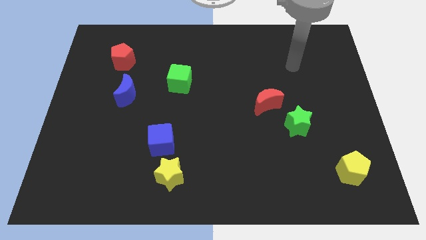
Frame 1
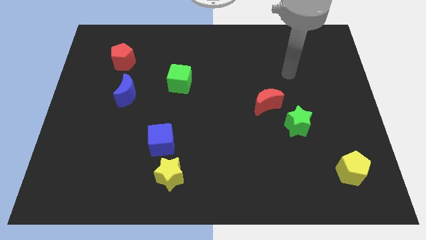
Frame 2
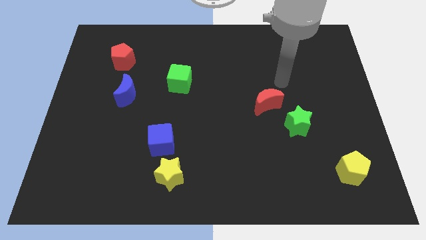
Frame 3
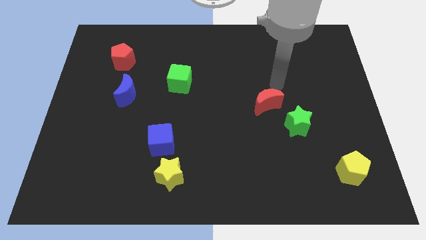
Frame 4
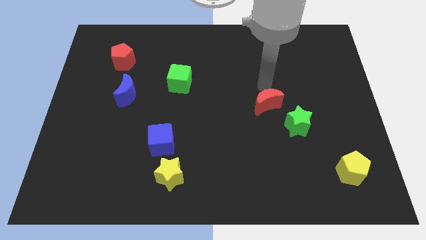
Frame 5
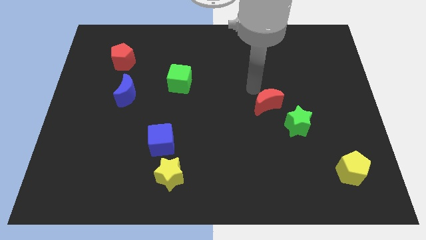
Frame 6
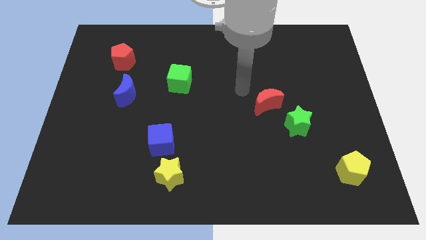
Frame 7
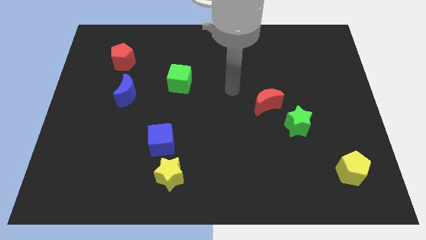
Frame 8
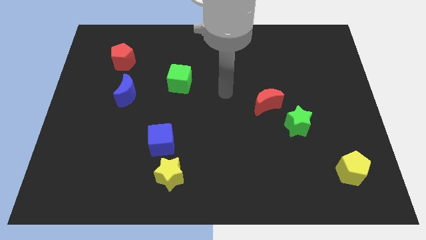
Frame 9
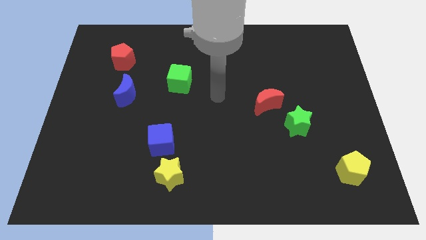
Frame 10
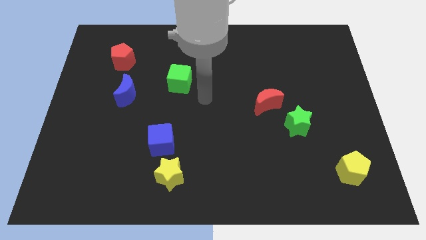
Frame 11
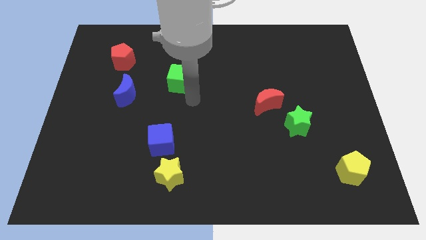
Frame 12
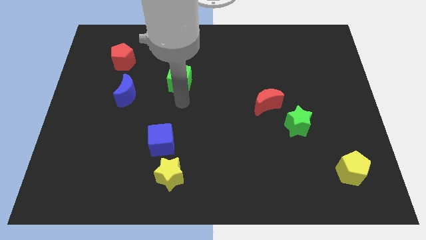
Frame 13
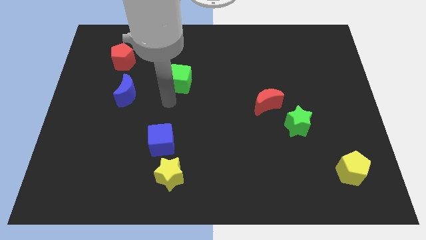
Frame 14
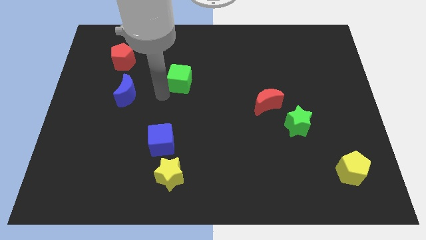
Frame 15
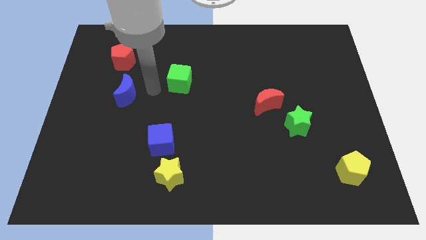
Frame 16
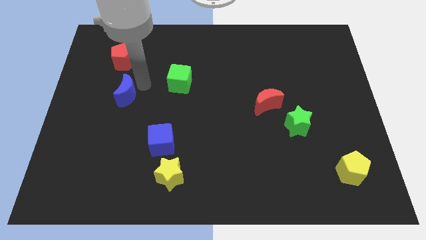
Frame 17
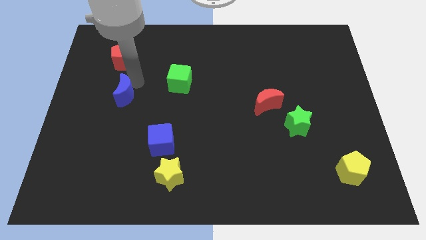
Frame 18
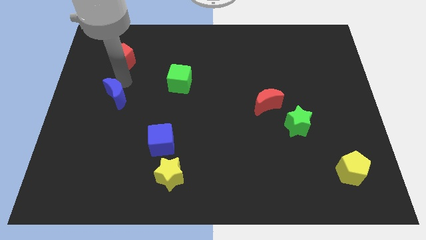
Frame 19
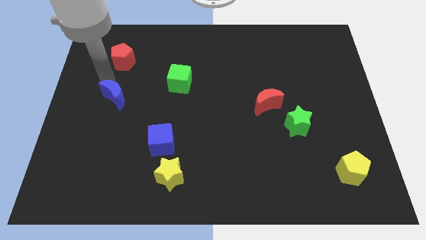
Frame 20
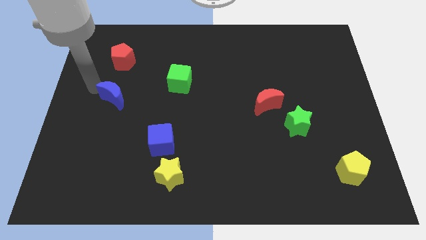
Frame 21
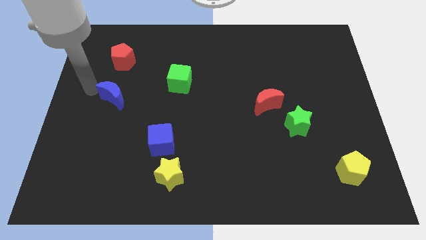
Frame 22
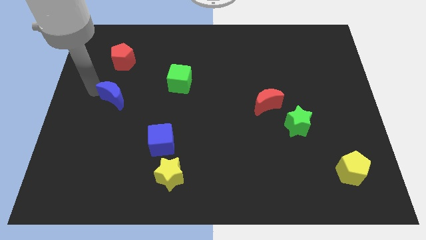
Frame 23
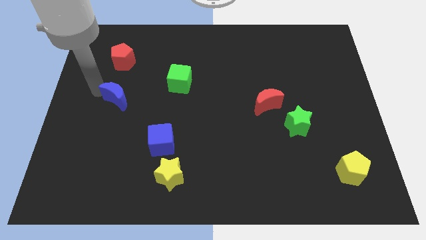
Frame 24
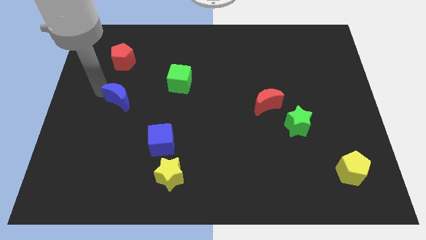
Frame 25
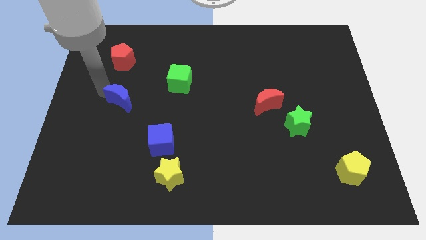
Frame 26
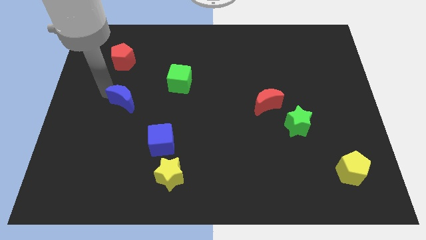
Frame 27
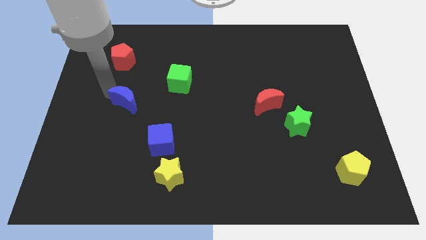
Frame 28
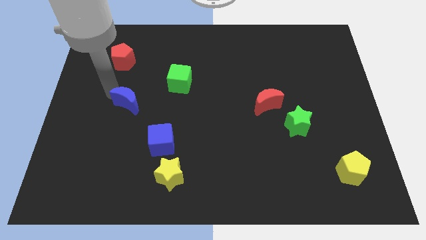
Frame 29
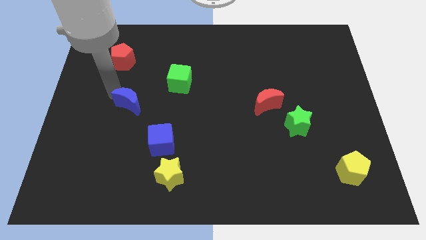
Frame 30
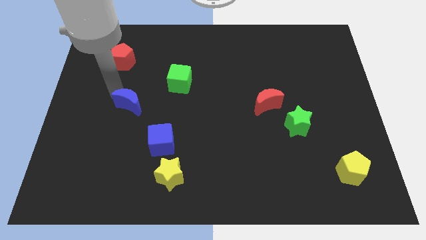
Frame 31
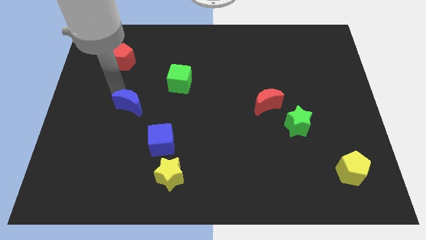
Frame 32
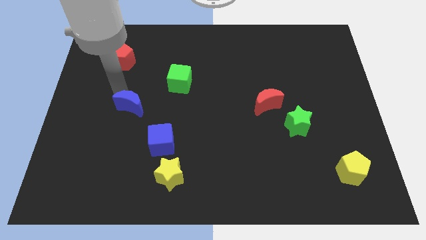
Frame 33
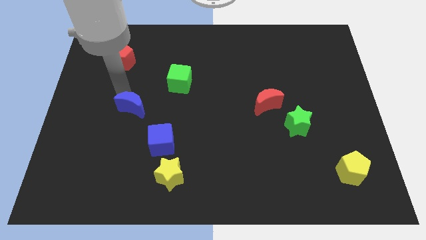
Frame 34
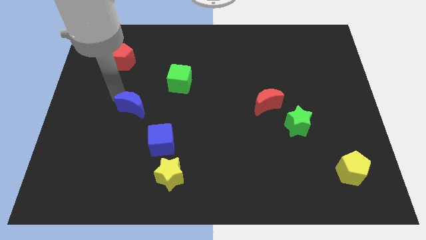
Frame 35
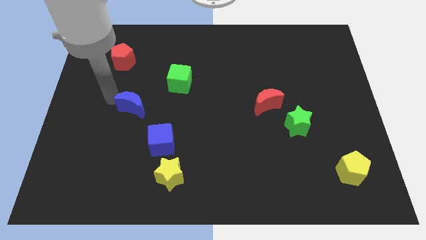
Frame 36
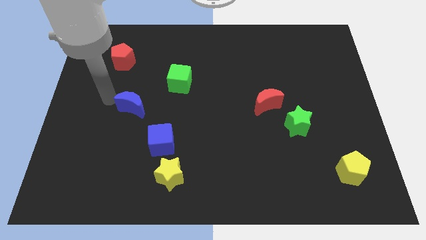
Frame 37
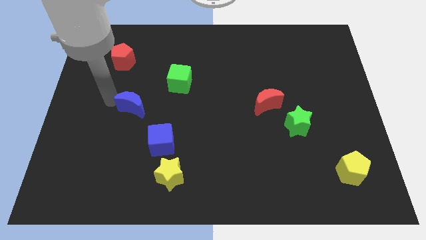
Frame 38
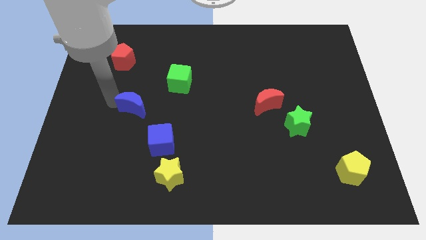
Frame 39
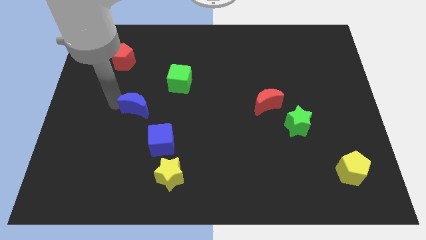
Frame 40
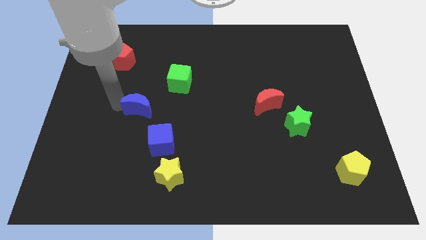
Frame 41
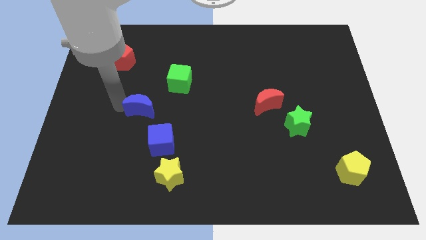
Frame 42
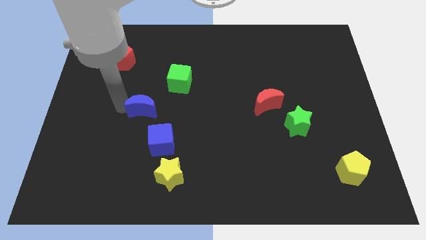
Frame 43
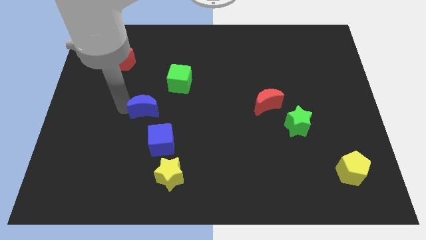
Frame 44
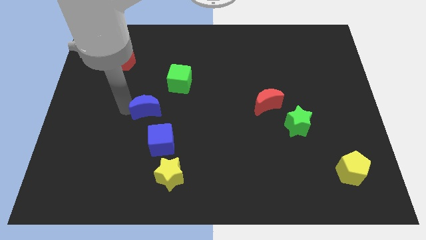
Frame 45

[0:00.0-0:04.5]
move the blue moon diagonally down and right somewhat

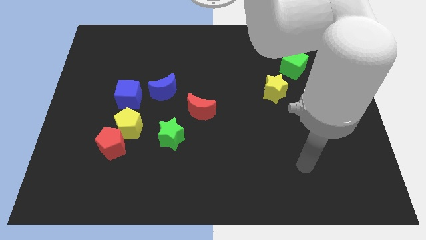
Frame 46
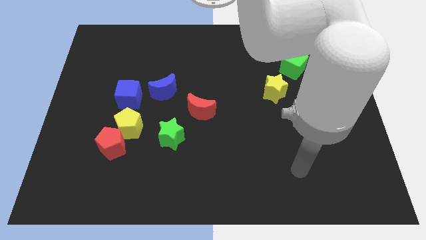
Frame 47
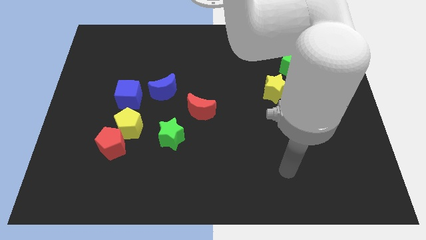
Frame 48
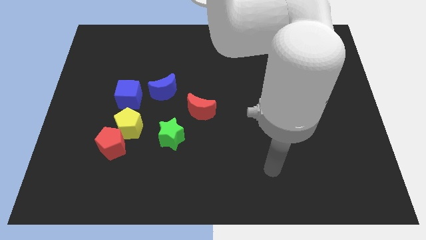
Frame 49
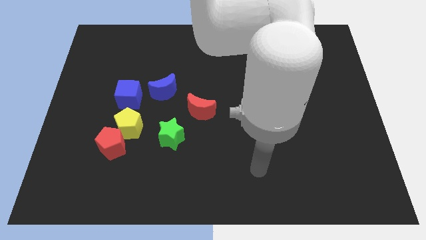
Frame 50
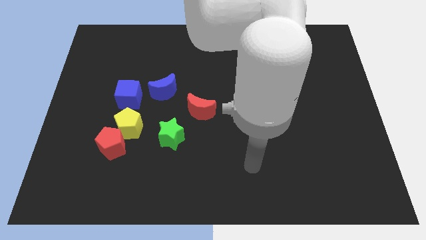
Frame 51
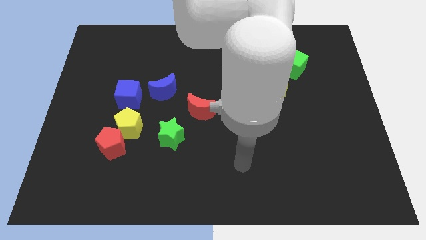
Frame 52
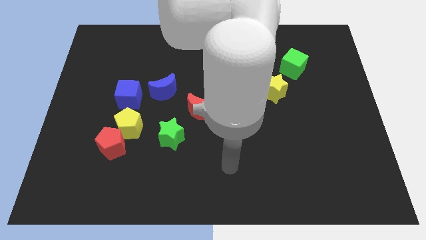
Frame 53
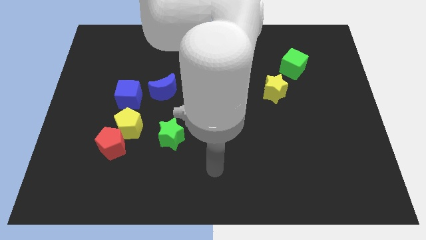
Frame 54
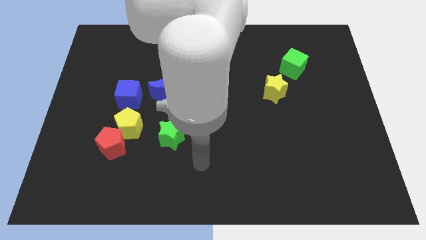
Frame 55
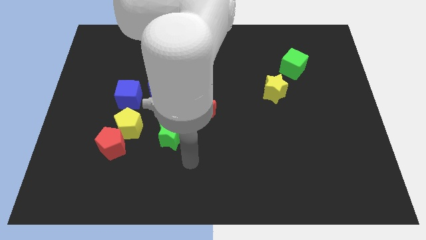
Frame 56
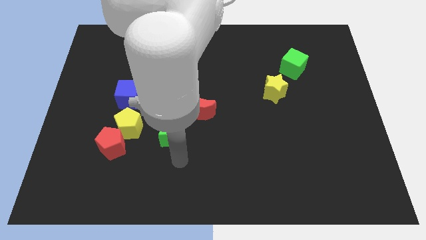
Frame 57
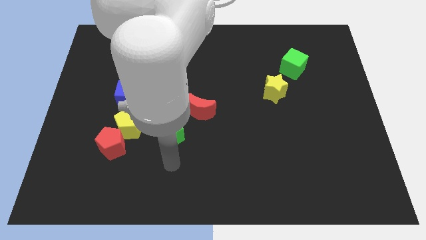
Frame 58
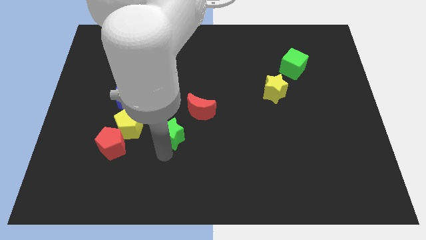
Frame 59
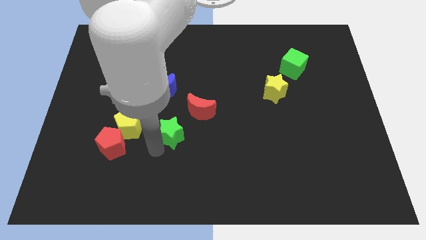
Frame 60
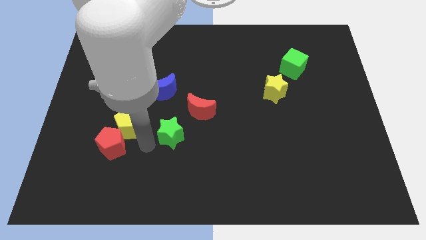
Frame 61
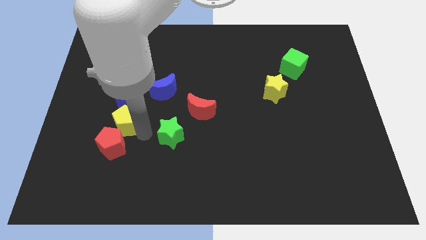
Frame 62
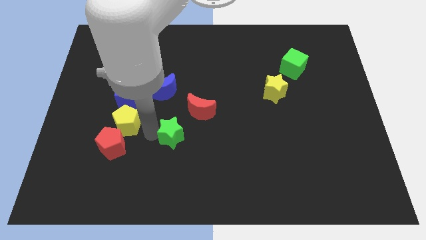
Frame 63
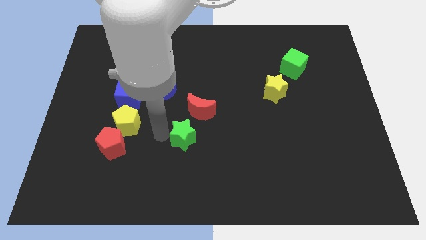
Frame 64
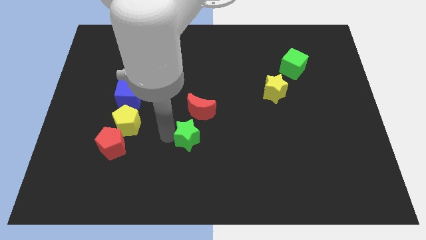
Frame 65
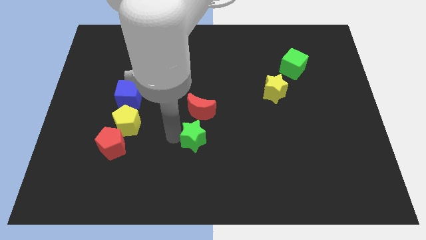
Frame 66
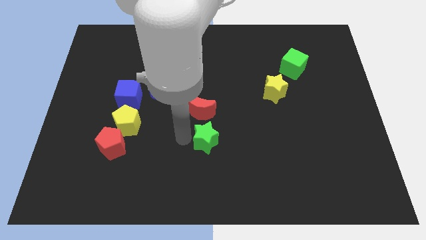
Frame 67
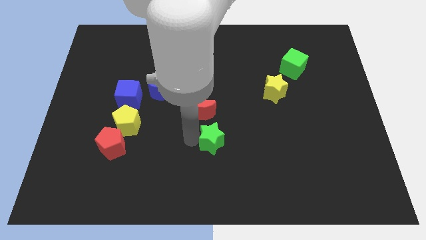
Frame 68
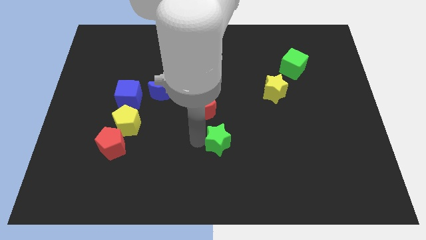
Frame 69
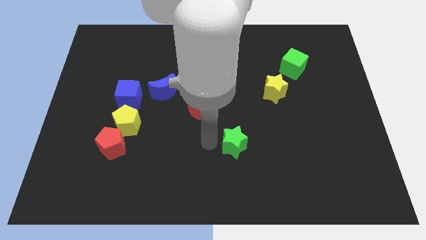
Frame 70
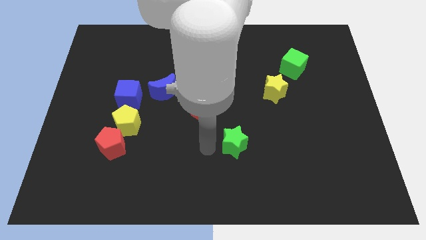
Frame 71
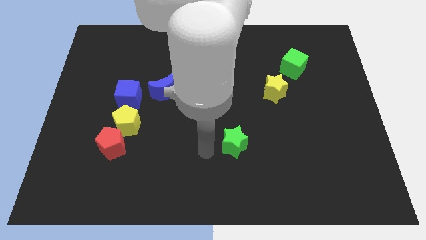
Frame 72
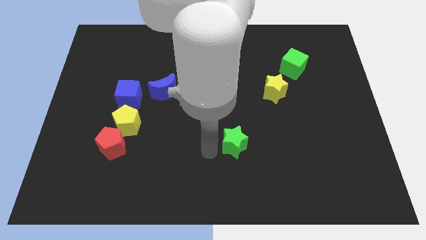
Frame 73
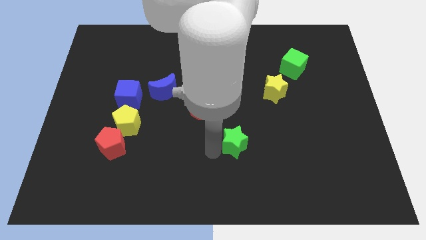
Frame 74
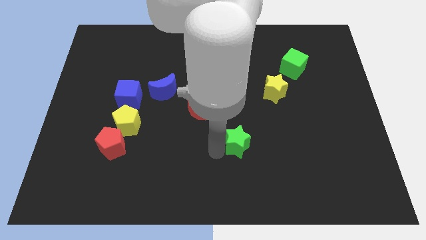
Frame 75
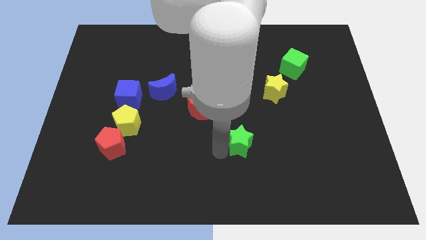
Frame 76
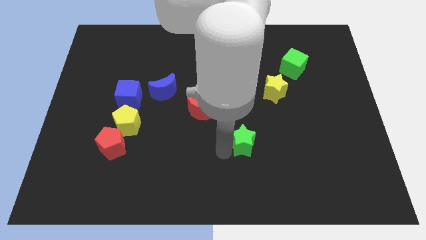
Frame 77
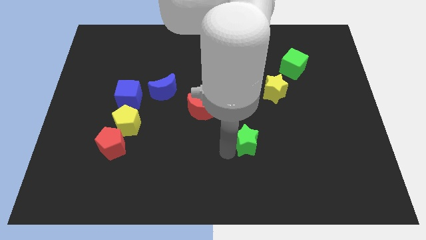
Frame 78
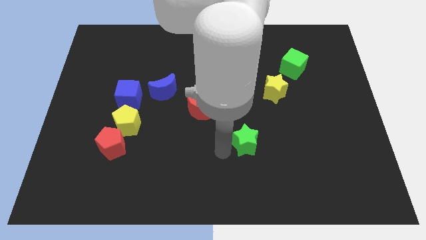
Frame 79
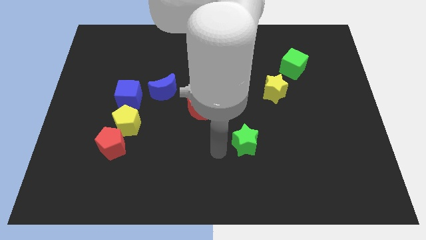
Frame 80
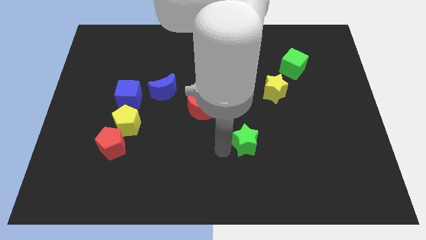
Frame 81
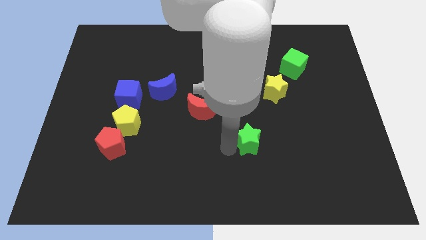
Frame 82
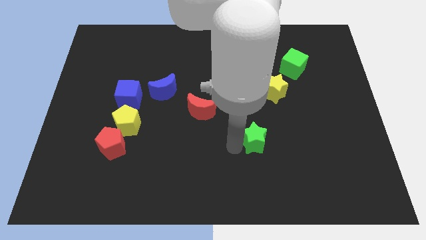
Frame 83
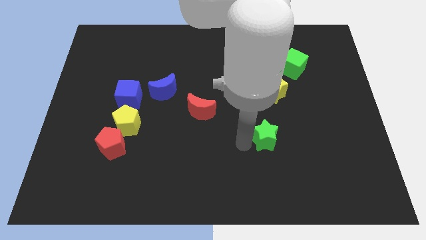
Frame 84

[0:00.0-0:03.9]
push the green star to the right
